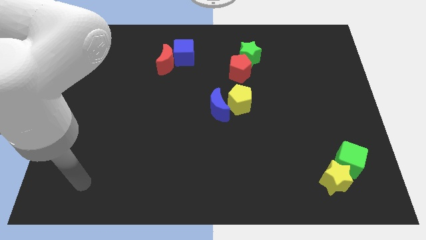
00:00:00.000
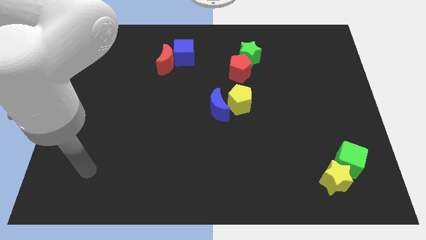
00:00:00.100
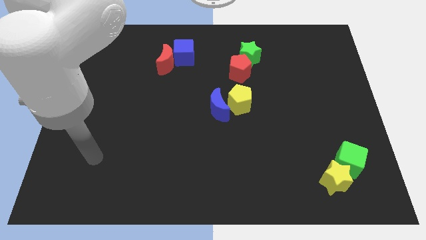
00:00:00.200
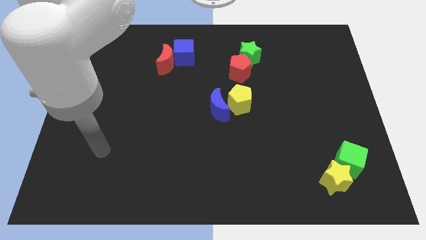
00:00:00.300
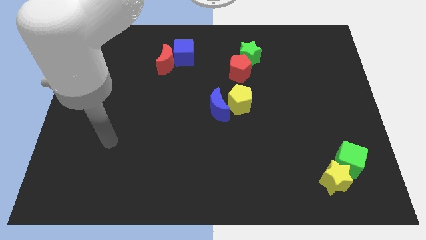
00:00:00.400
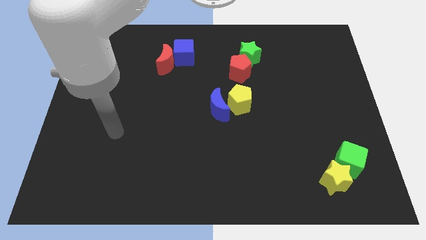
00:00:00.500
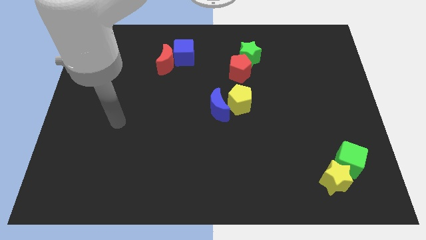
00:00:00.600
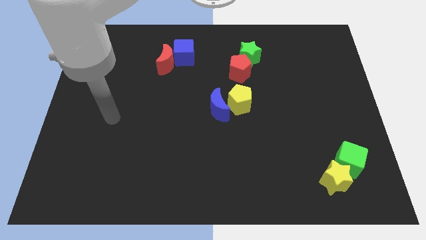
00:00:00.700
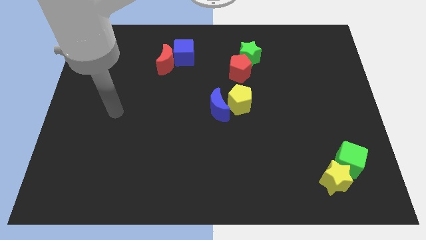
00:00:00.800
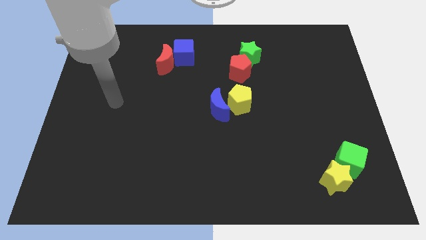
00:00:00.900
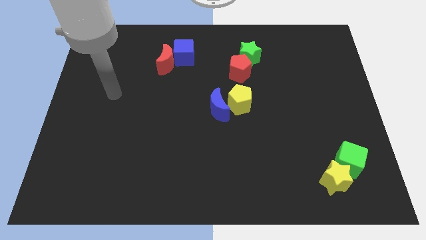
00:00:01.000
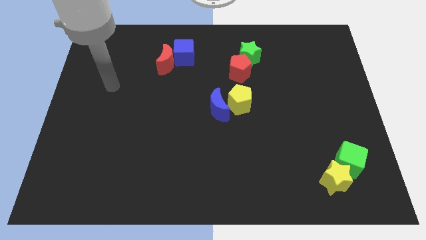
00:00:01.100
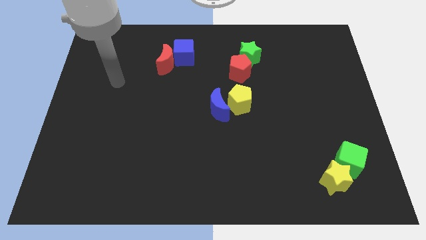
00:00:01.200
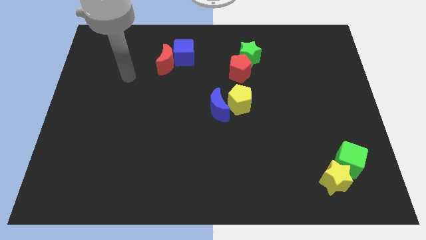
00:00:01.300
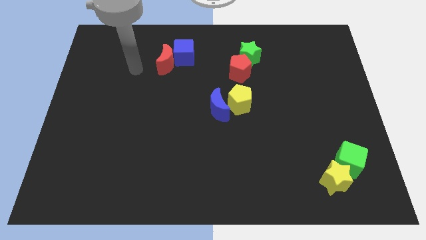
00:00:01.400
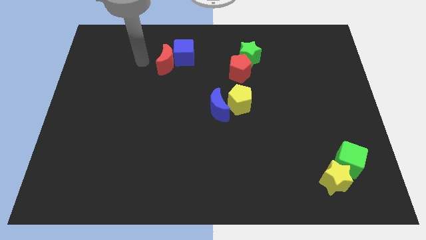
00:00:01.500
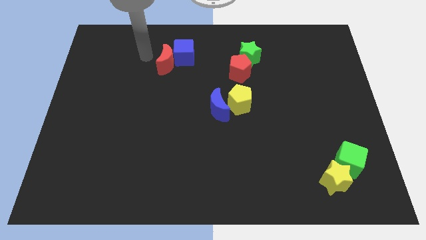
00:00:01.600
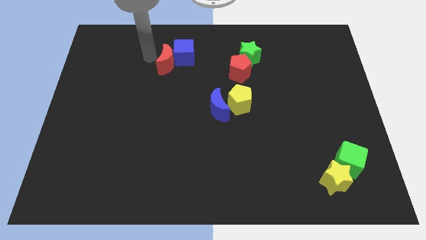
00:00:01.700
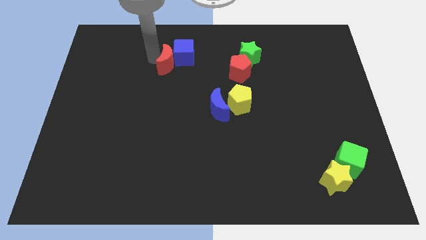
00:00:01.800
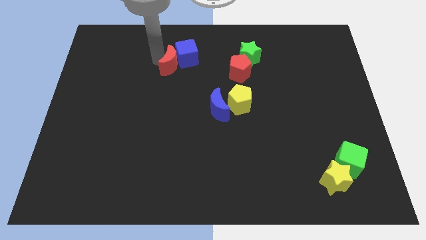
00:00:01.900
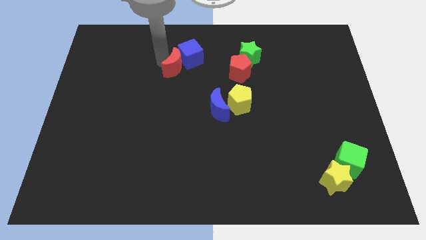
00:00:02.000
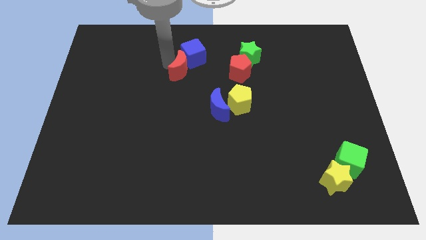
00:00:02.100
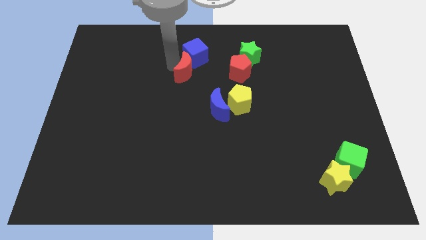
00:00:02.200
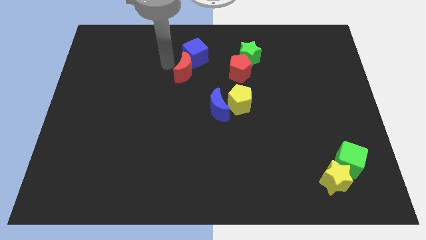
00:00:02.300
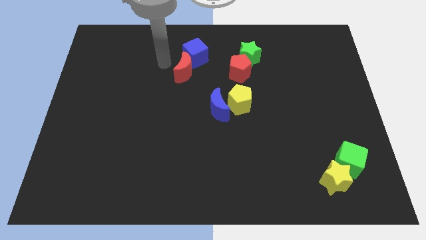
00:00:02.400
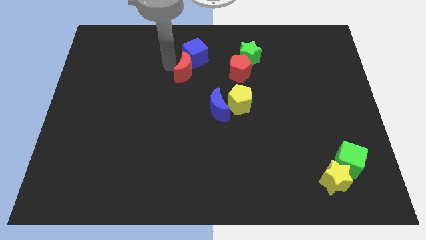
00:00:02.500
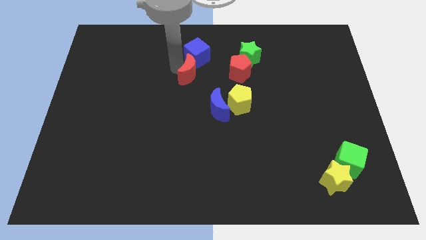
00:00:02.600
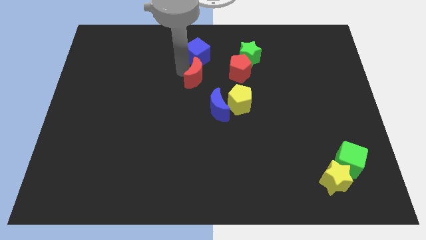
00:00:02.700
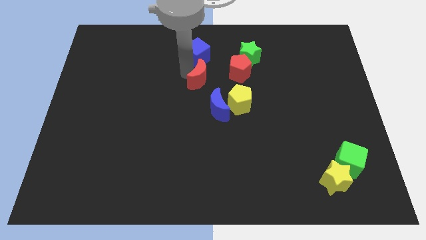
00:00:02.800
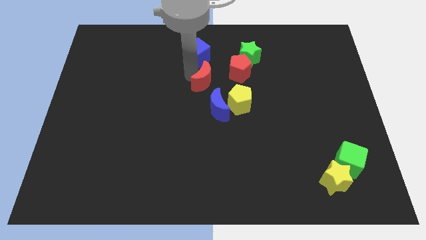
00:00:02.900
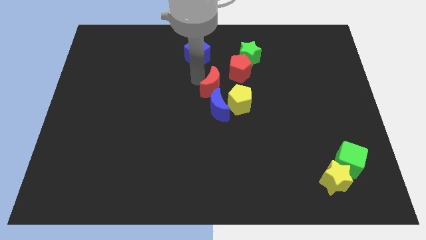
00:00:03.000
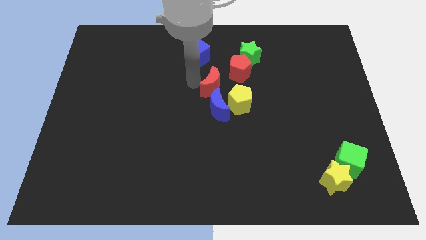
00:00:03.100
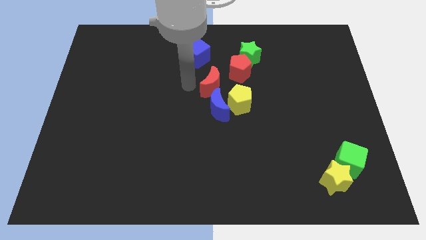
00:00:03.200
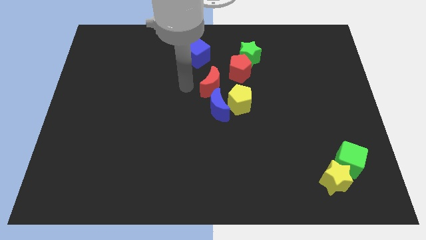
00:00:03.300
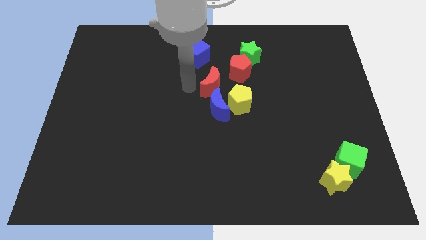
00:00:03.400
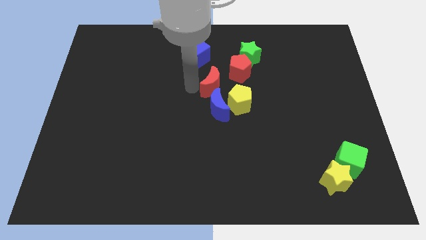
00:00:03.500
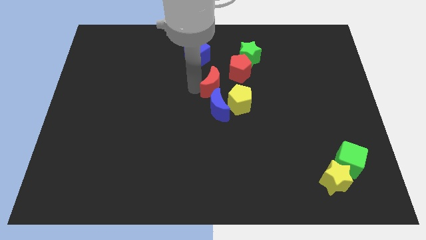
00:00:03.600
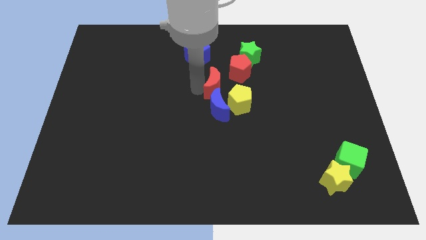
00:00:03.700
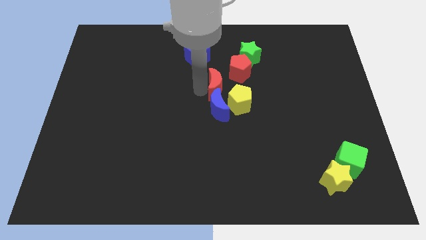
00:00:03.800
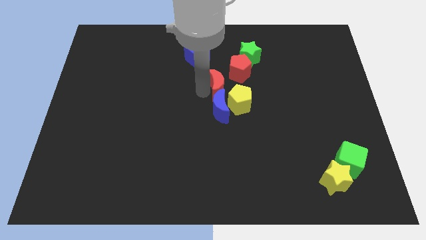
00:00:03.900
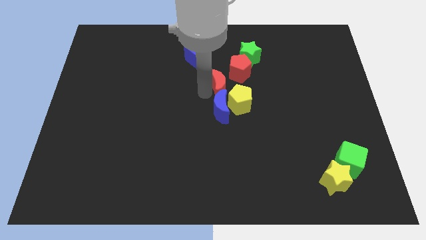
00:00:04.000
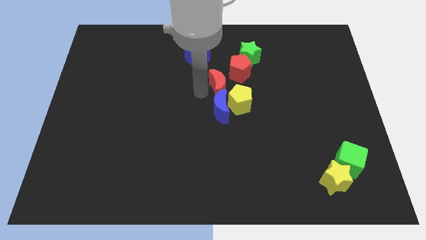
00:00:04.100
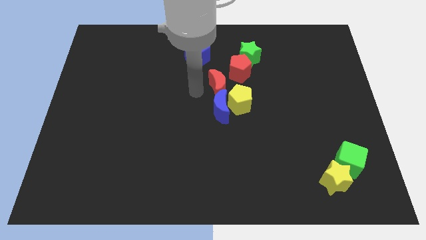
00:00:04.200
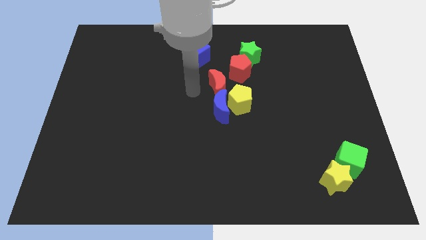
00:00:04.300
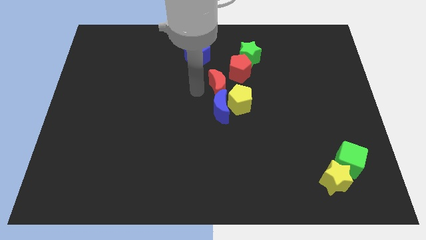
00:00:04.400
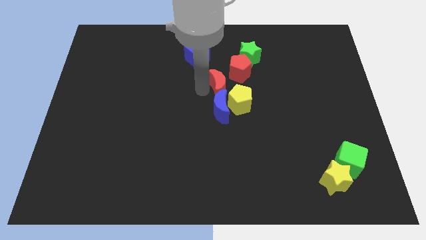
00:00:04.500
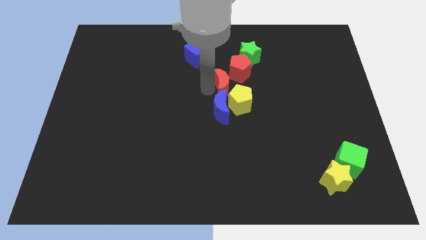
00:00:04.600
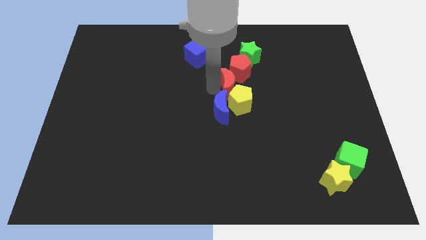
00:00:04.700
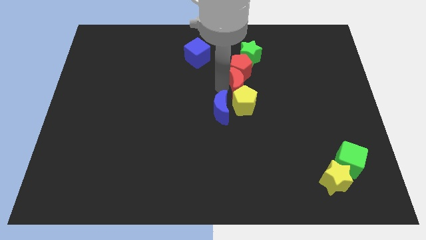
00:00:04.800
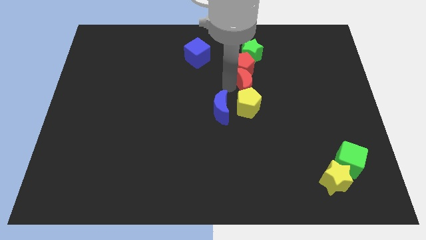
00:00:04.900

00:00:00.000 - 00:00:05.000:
put the red moon to the top right side of the yellow pentagon

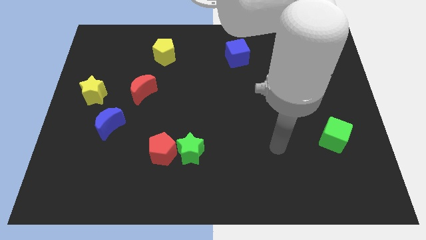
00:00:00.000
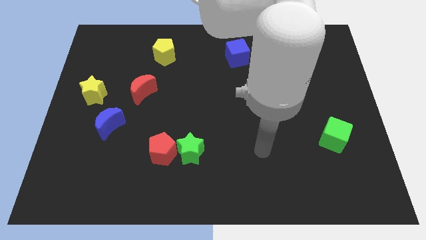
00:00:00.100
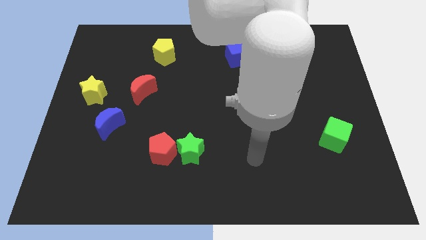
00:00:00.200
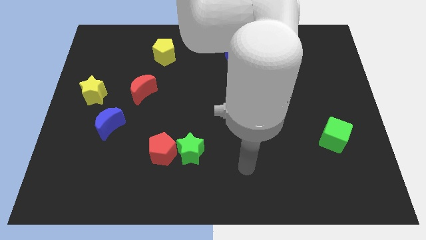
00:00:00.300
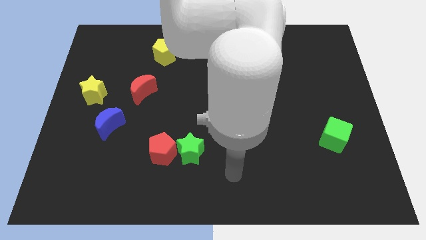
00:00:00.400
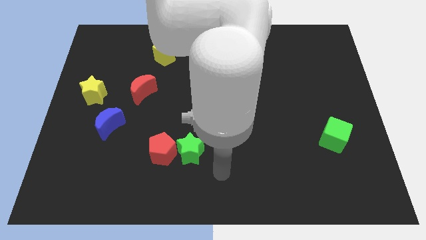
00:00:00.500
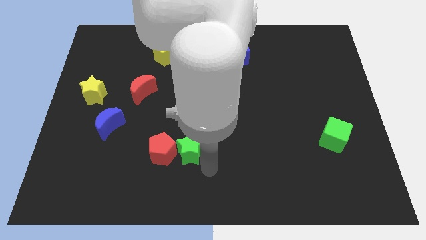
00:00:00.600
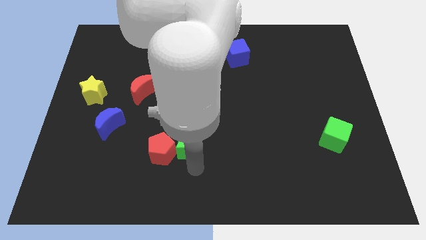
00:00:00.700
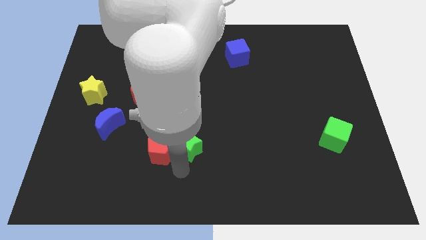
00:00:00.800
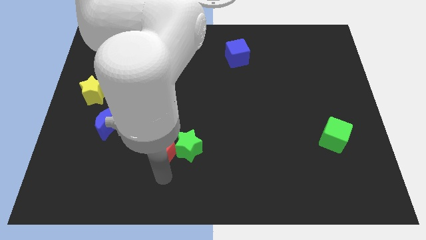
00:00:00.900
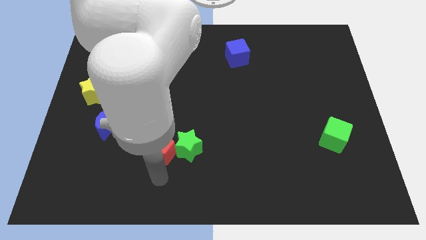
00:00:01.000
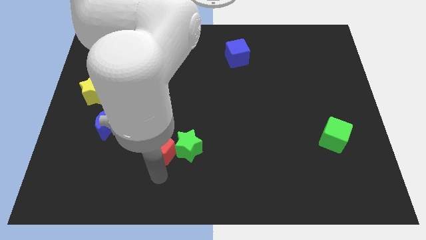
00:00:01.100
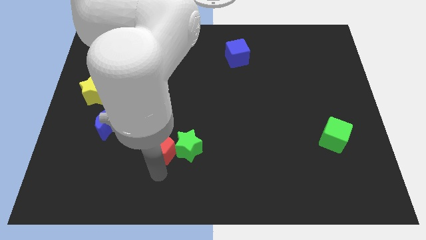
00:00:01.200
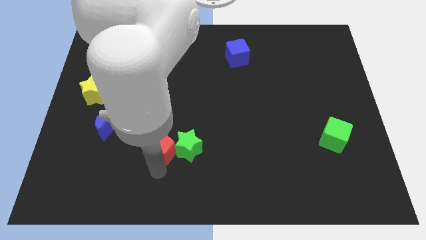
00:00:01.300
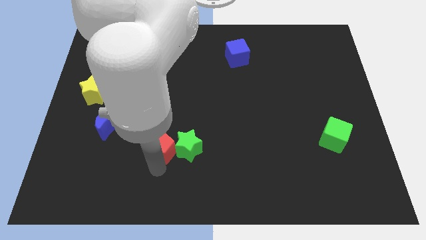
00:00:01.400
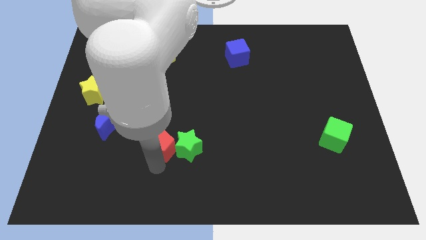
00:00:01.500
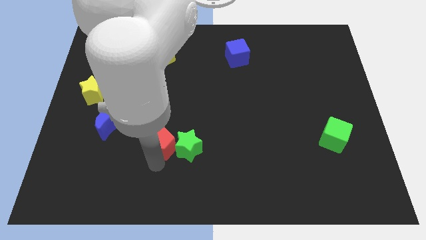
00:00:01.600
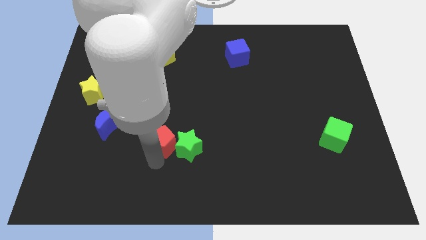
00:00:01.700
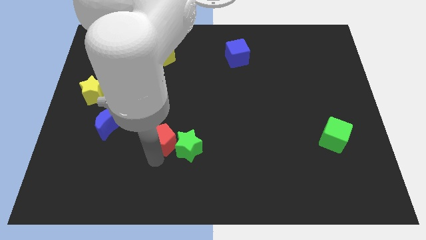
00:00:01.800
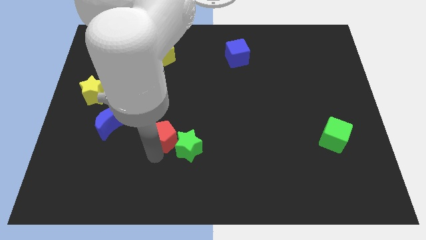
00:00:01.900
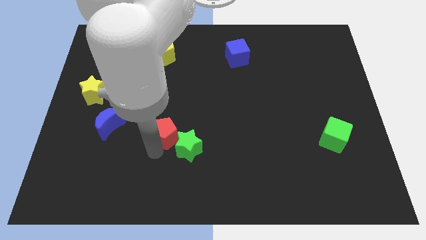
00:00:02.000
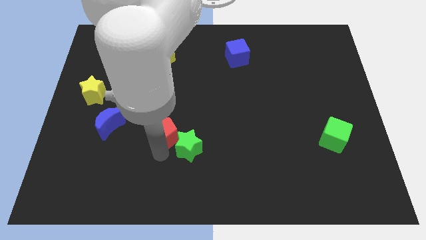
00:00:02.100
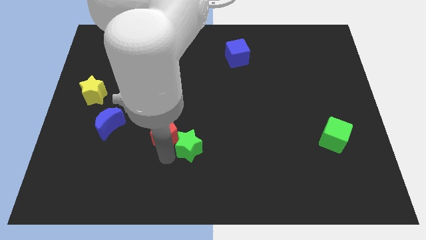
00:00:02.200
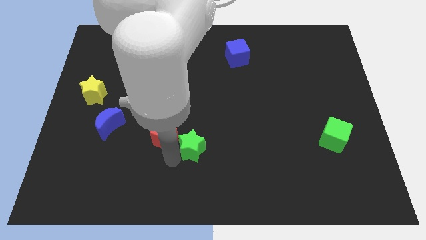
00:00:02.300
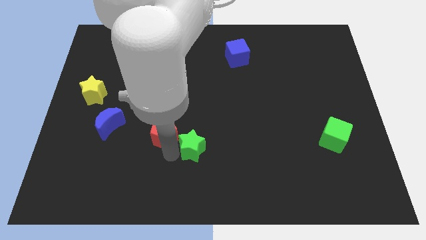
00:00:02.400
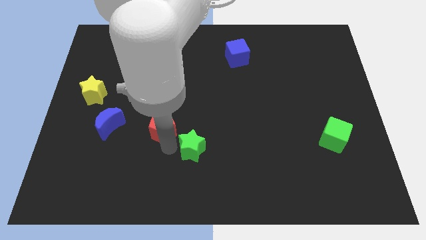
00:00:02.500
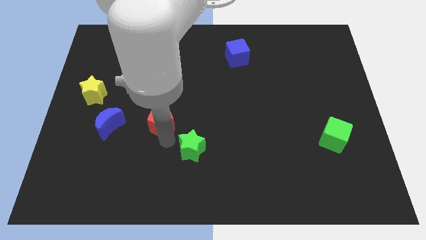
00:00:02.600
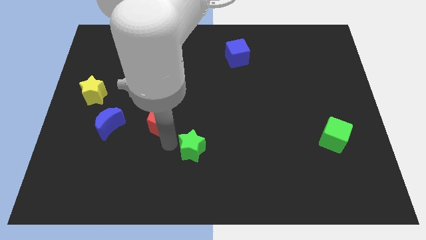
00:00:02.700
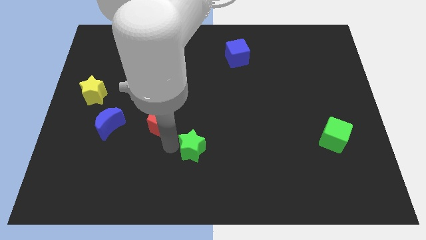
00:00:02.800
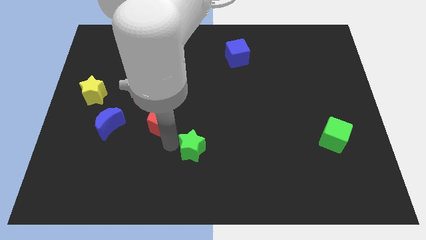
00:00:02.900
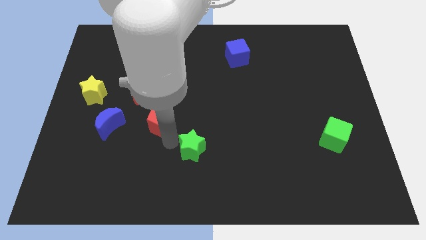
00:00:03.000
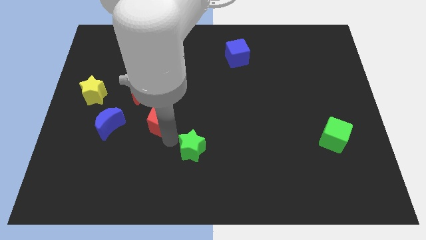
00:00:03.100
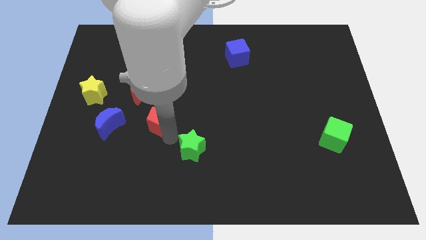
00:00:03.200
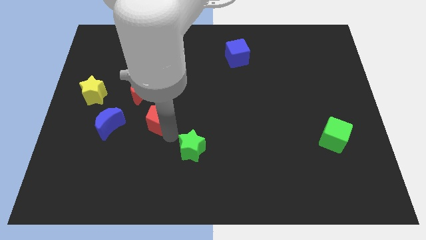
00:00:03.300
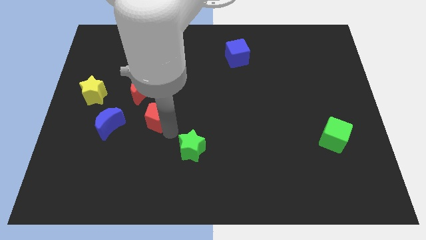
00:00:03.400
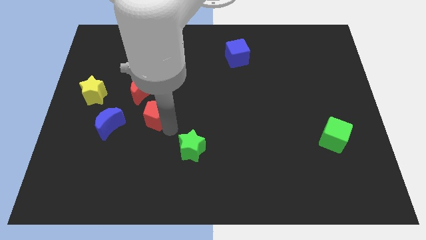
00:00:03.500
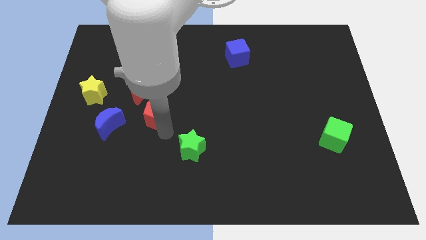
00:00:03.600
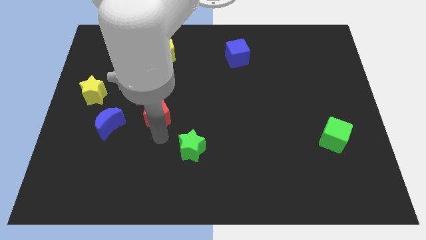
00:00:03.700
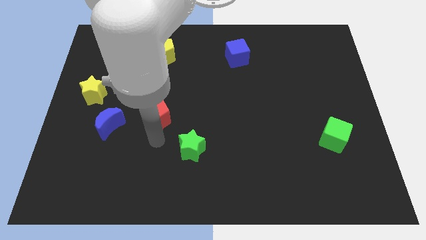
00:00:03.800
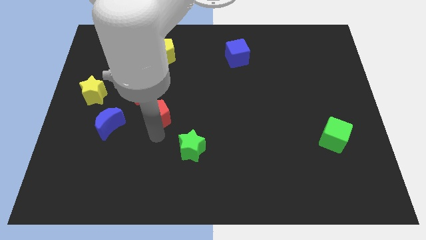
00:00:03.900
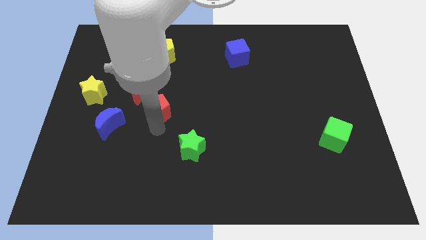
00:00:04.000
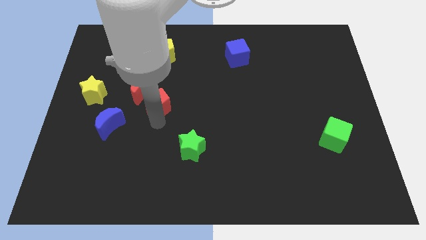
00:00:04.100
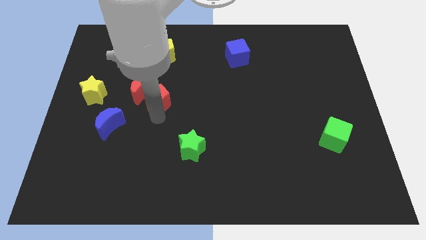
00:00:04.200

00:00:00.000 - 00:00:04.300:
put the red pentagon to the right side of the yellow star
